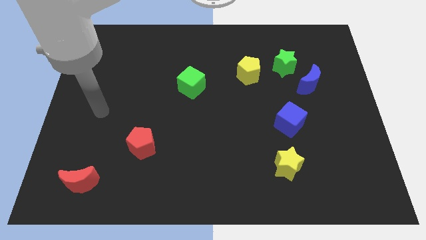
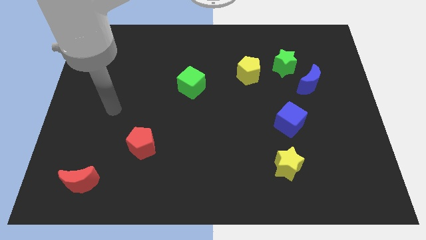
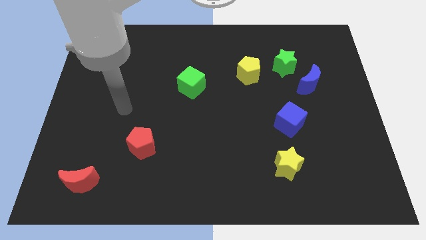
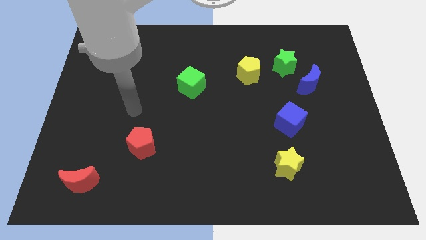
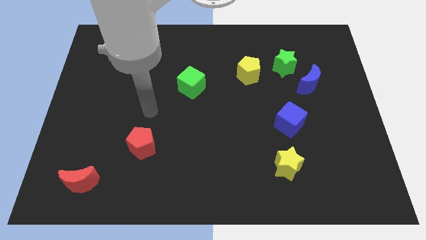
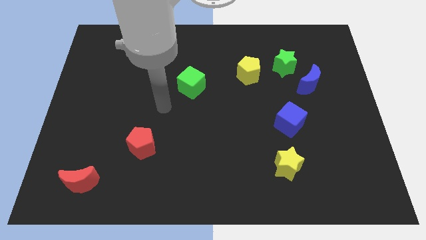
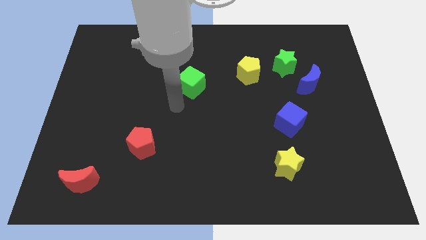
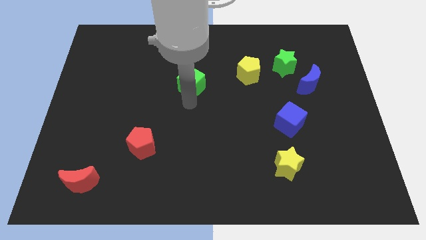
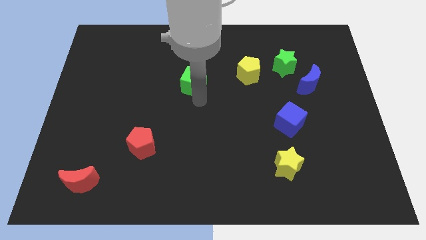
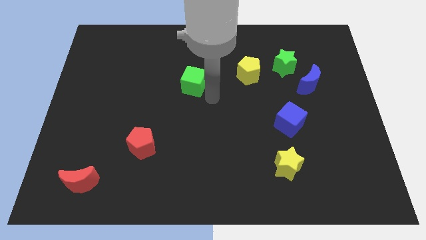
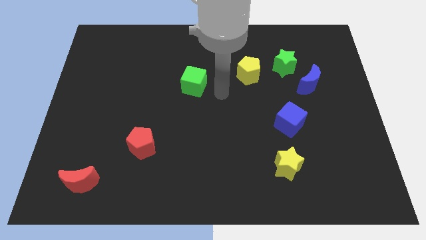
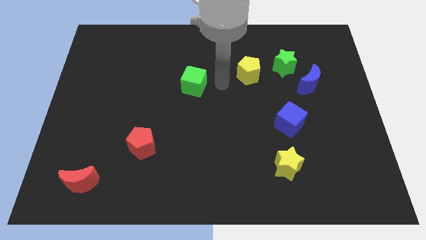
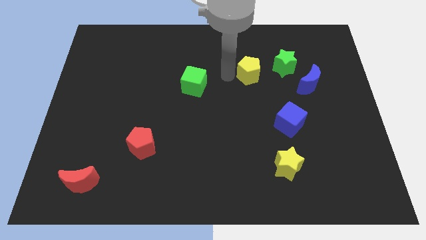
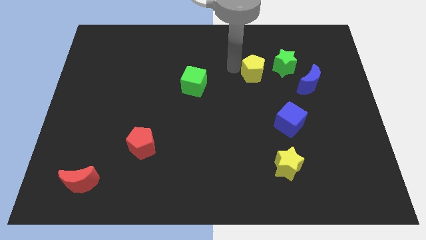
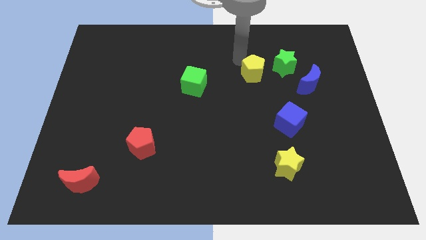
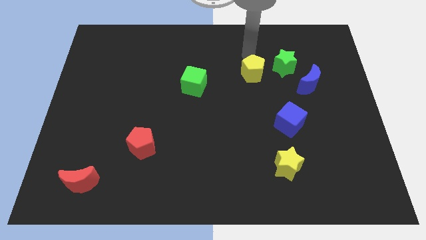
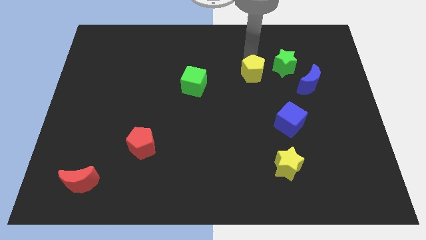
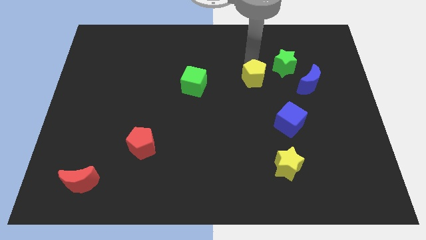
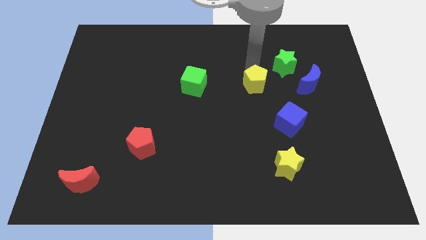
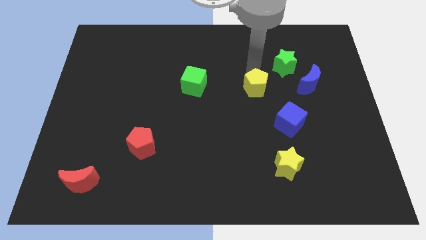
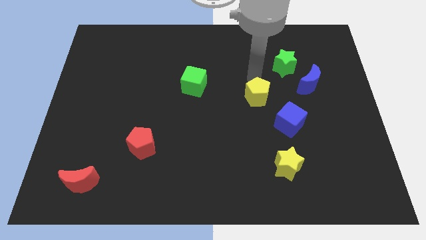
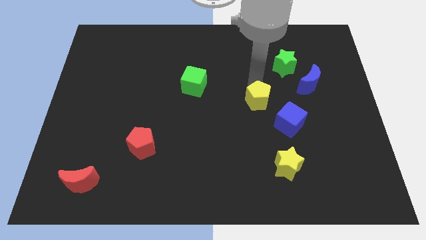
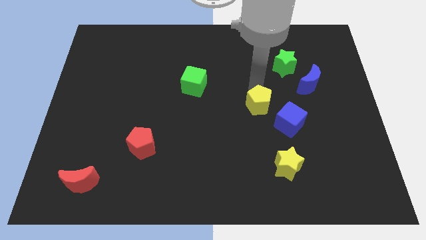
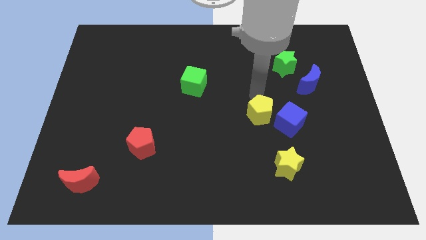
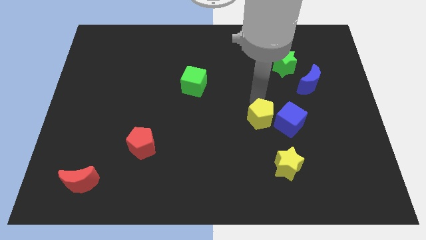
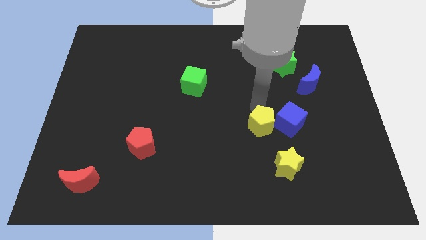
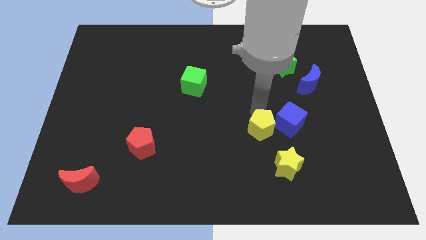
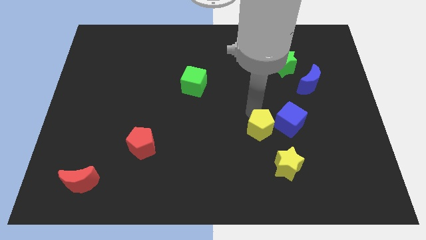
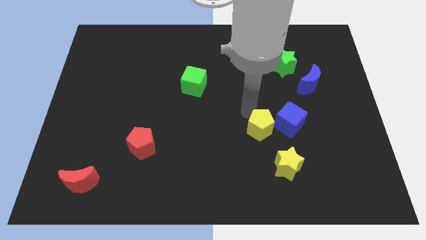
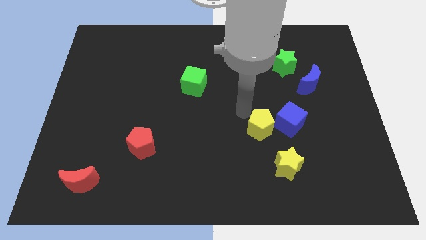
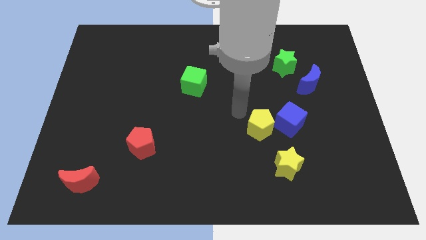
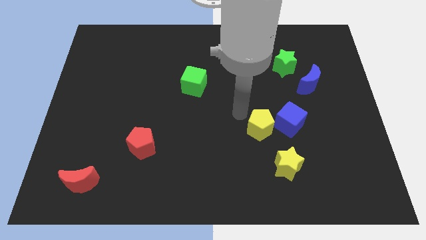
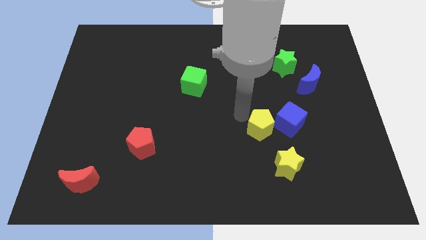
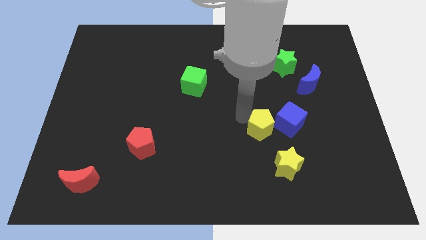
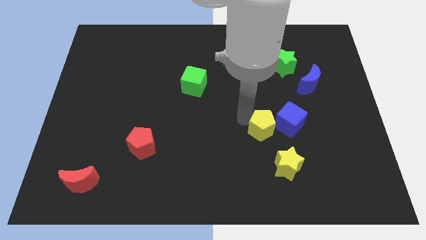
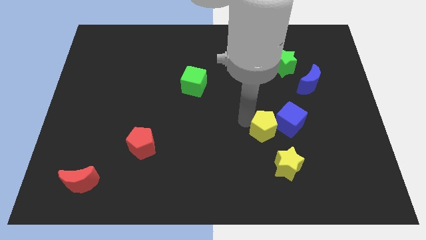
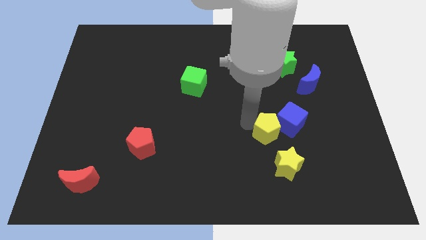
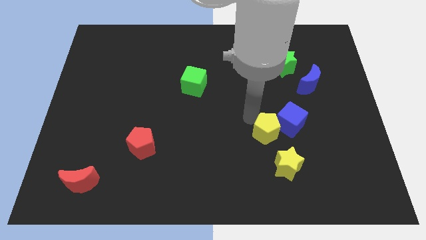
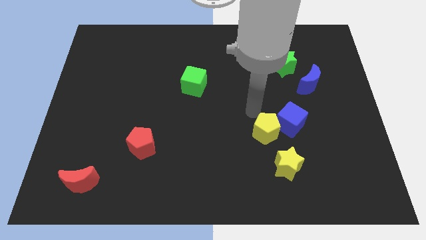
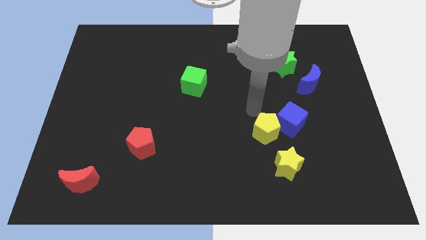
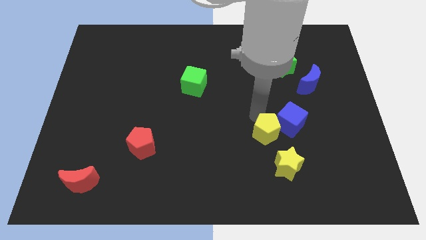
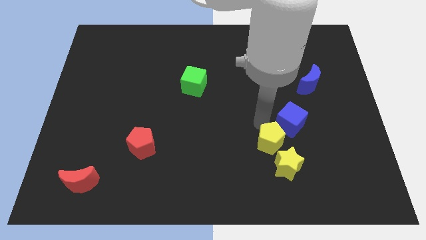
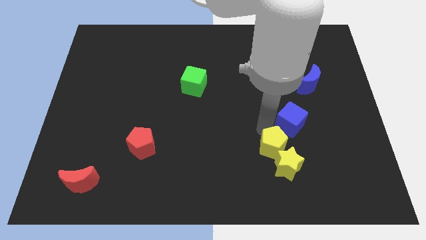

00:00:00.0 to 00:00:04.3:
slide the yellow pentagon towards the yellow star

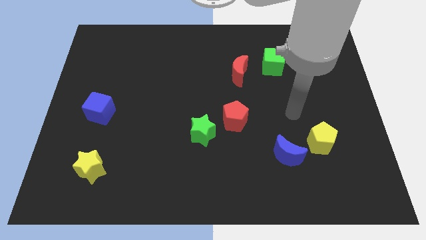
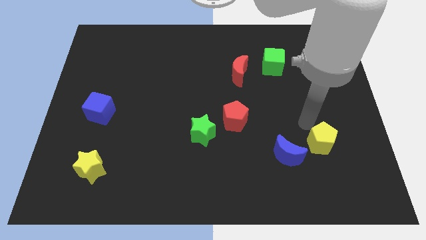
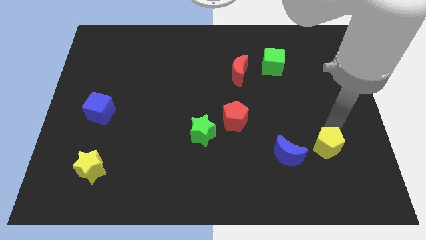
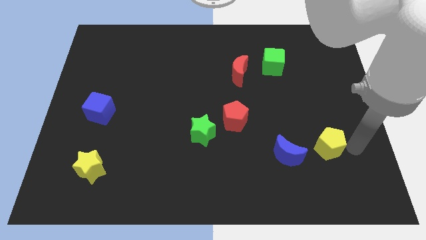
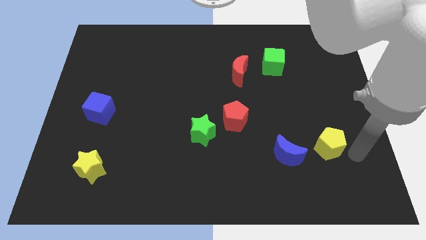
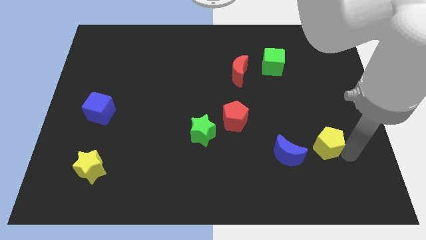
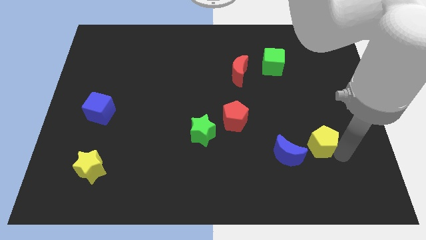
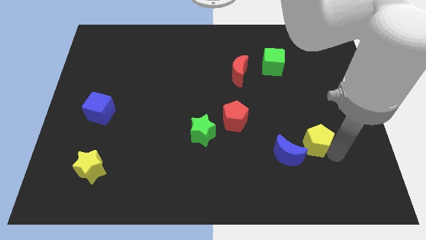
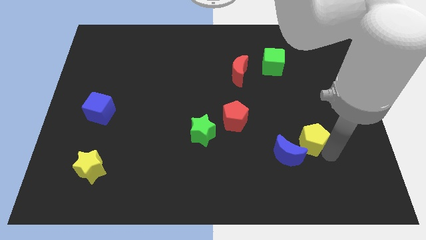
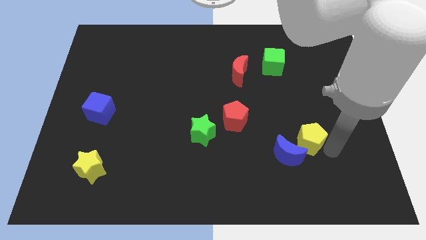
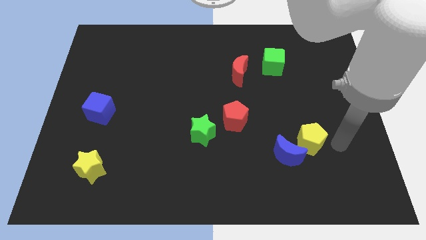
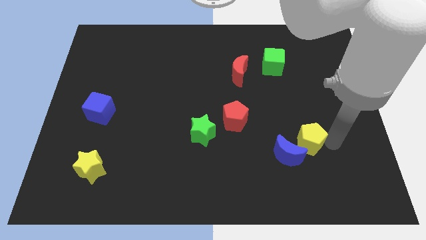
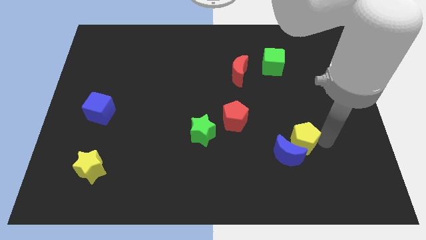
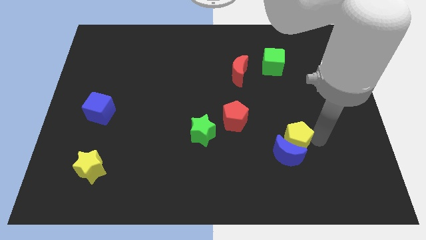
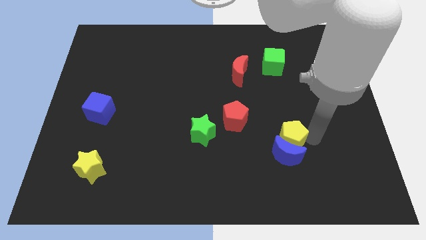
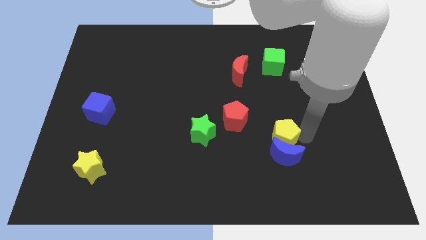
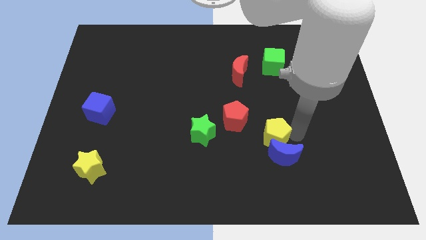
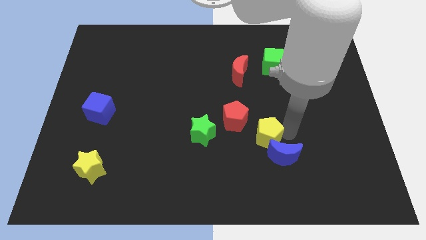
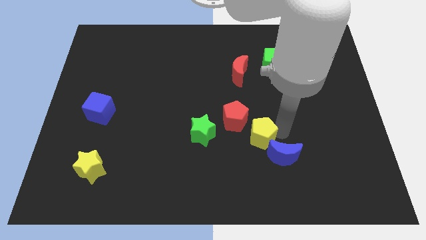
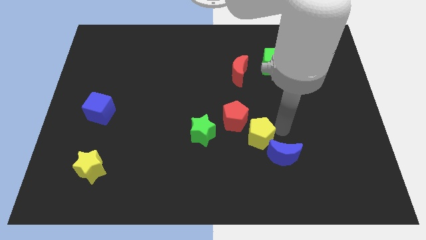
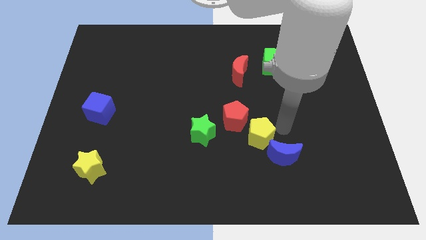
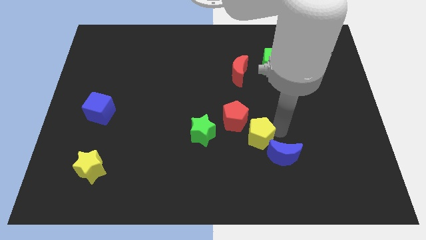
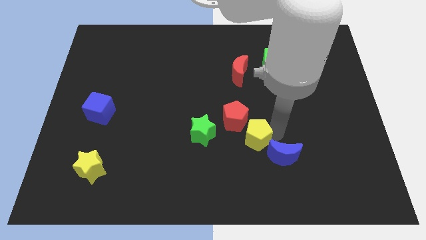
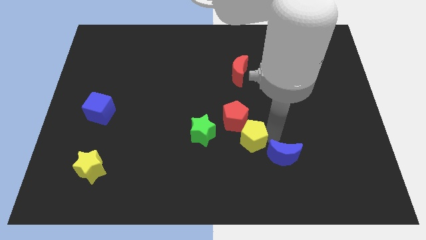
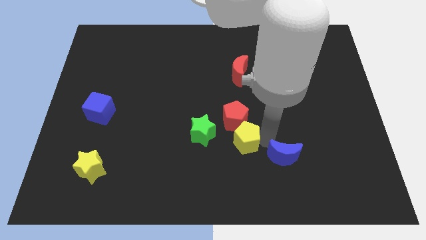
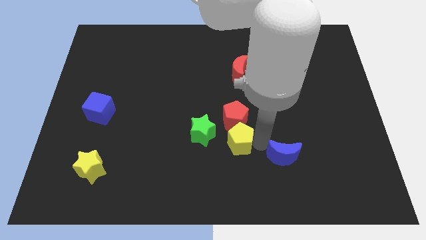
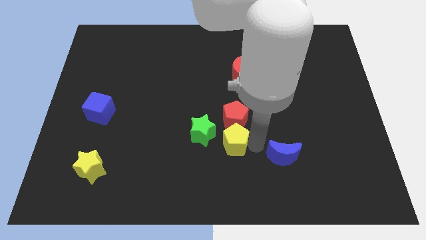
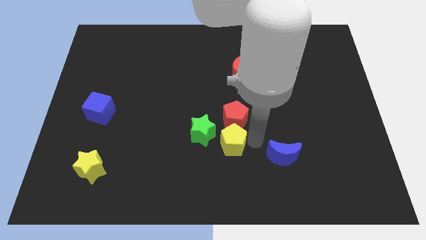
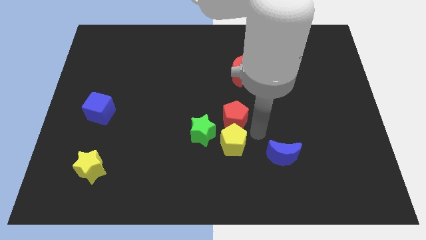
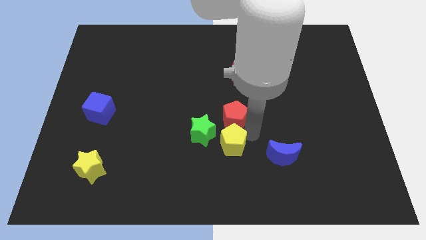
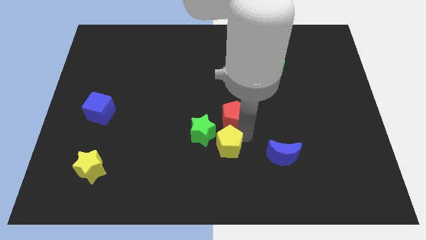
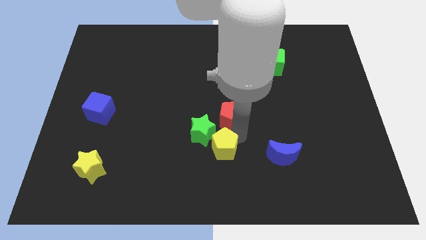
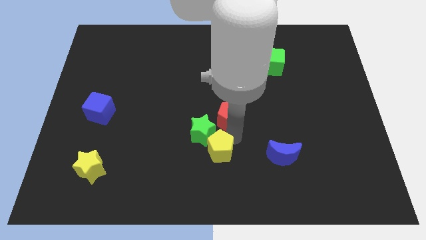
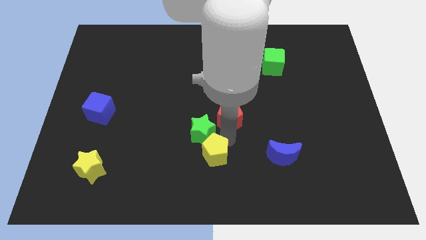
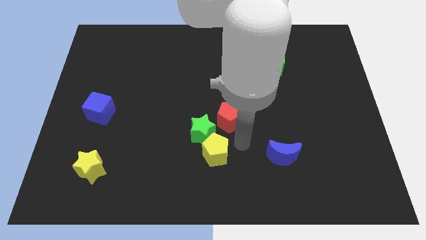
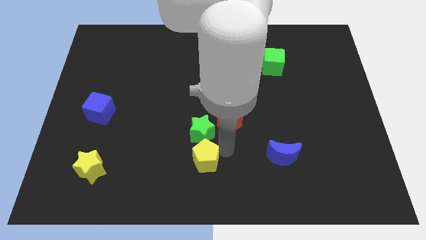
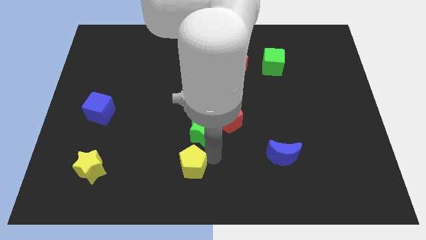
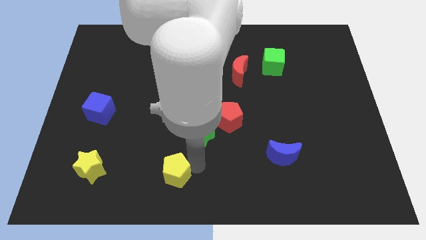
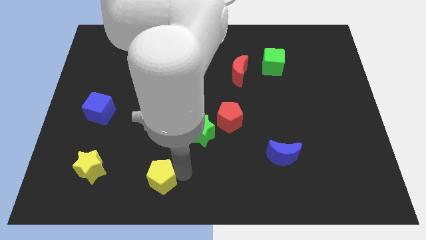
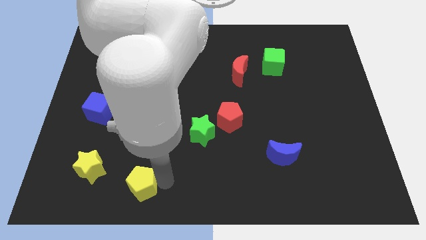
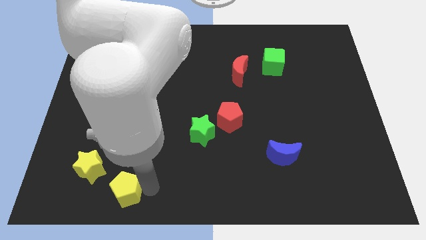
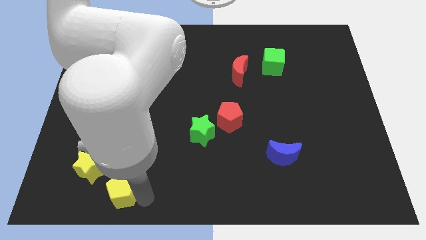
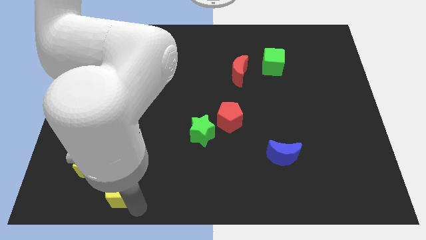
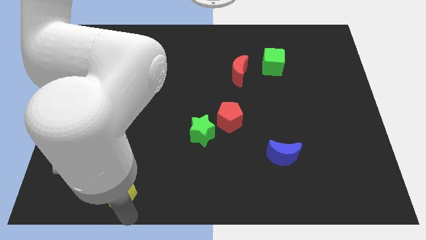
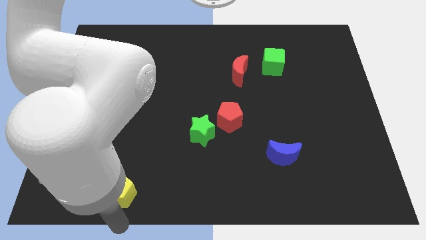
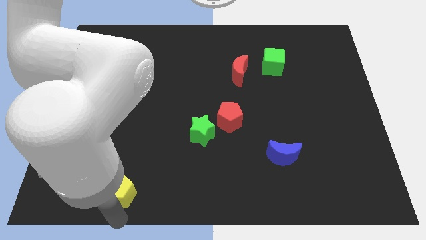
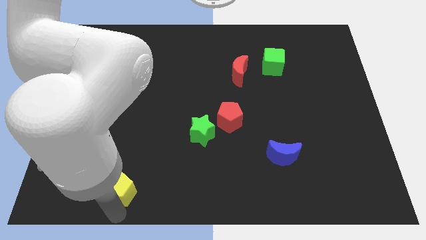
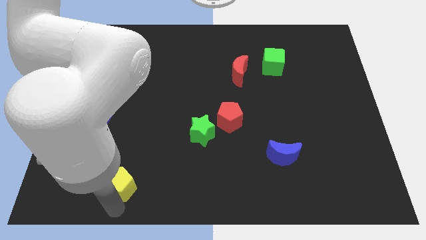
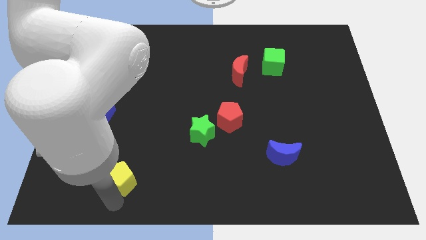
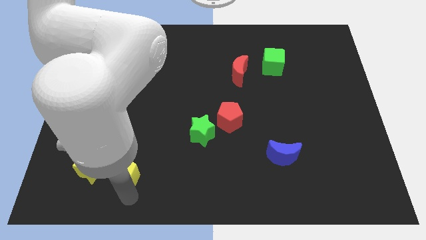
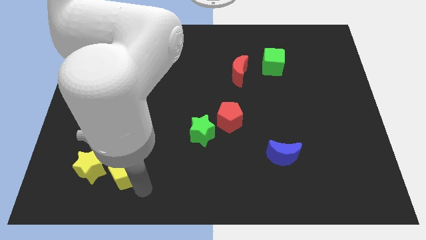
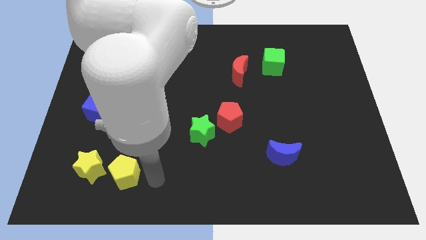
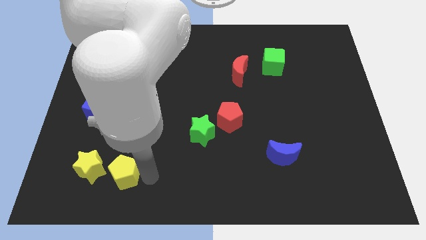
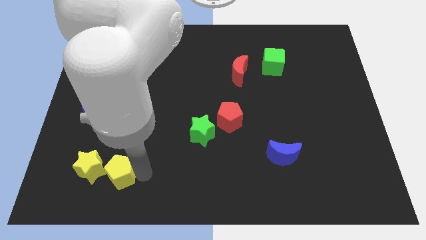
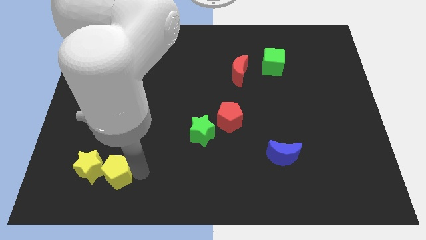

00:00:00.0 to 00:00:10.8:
push the yellow pentagon close to the yellow star
